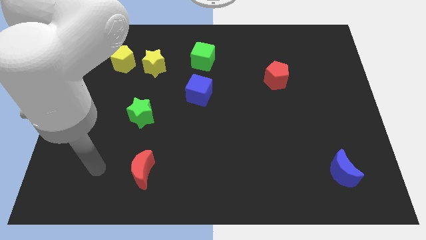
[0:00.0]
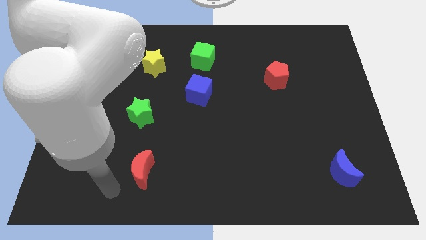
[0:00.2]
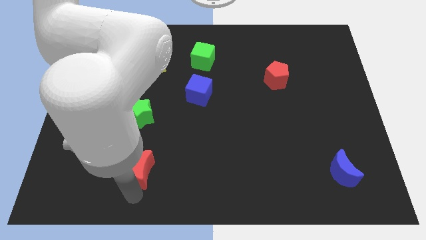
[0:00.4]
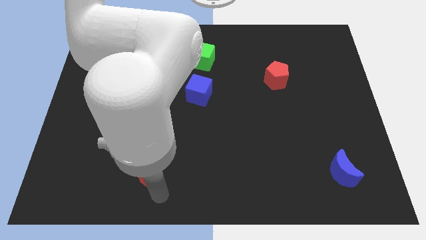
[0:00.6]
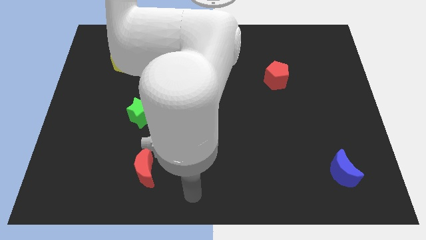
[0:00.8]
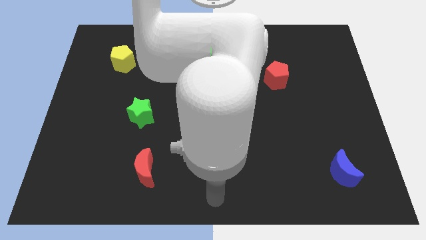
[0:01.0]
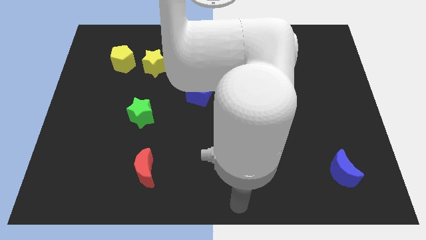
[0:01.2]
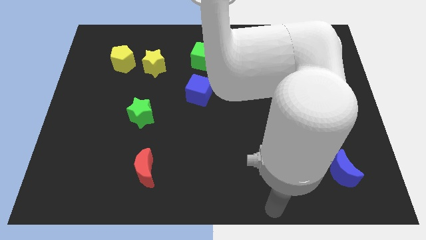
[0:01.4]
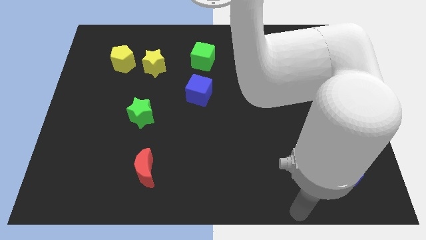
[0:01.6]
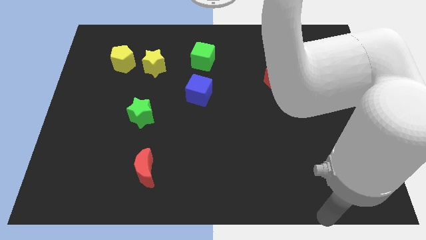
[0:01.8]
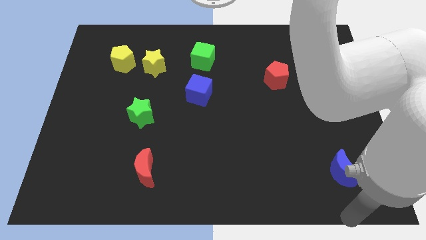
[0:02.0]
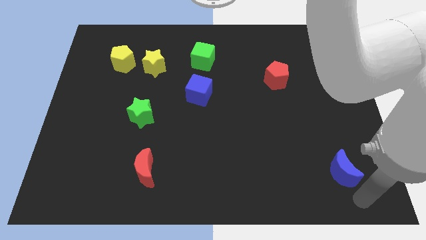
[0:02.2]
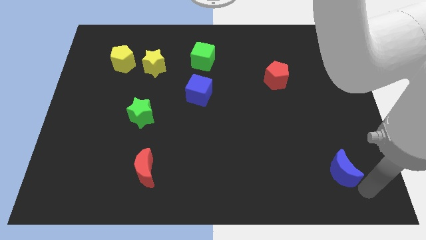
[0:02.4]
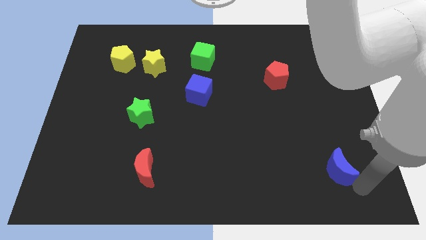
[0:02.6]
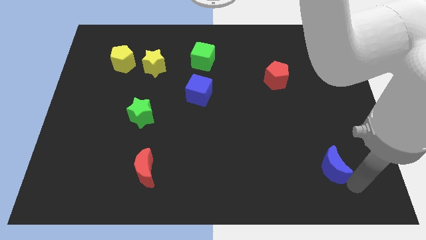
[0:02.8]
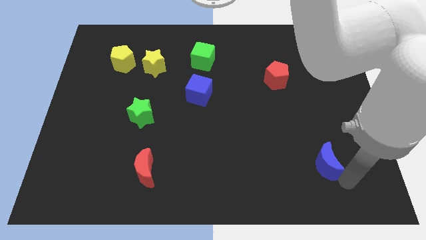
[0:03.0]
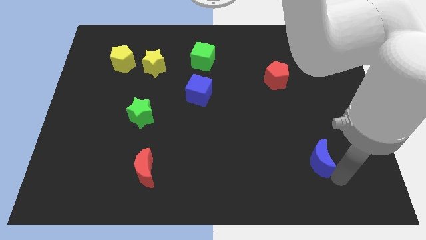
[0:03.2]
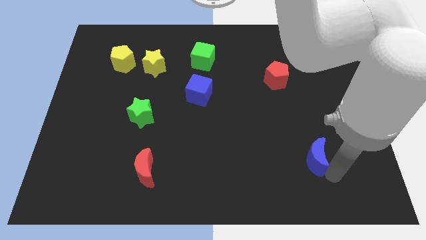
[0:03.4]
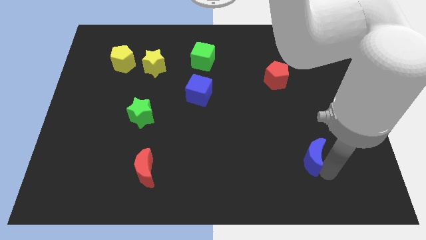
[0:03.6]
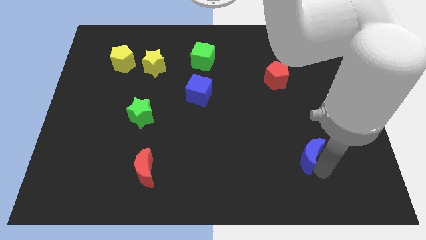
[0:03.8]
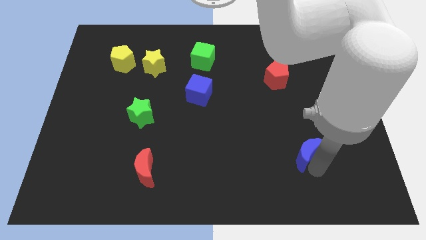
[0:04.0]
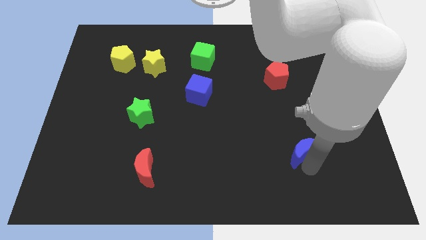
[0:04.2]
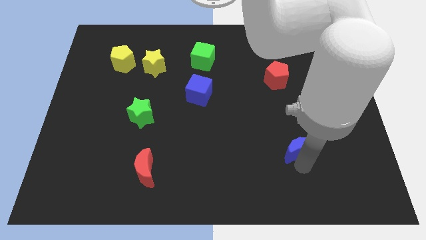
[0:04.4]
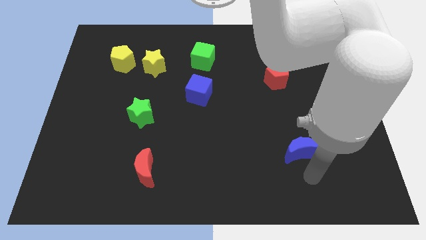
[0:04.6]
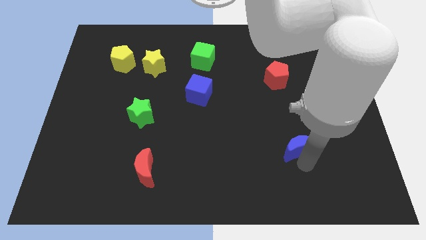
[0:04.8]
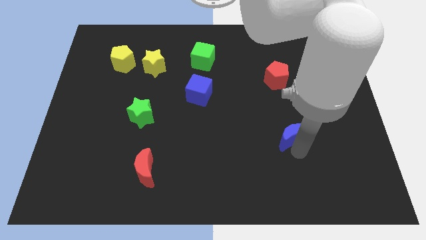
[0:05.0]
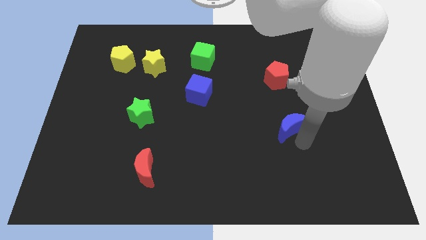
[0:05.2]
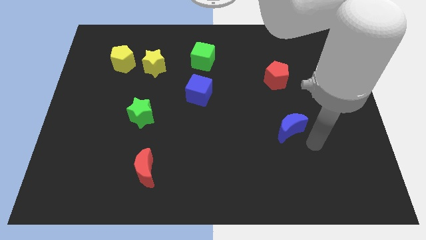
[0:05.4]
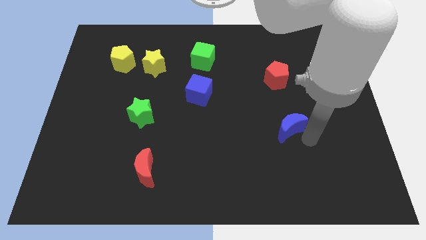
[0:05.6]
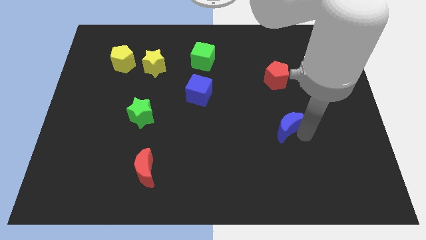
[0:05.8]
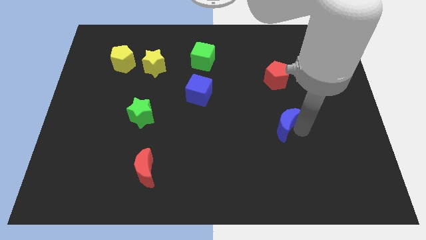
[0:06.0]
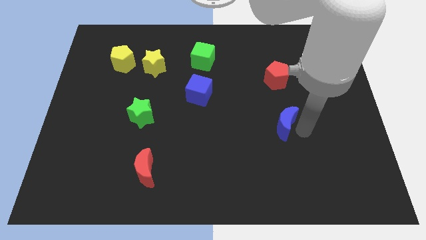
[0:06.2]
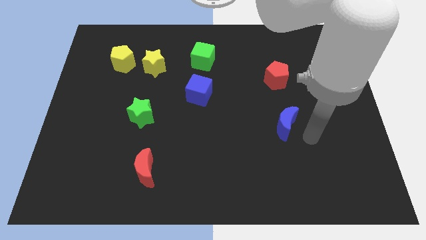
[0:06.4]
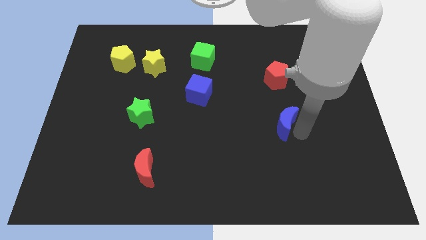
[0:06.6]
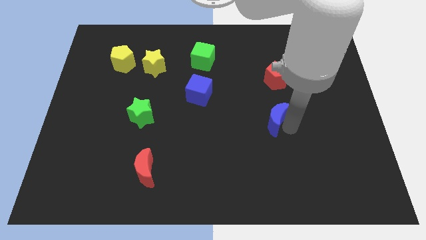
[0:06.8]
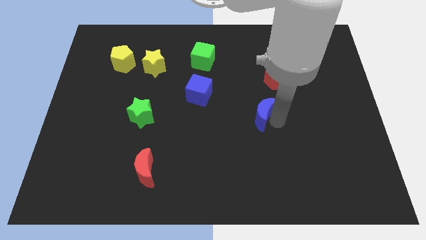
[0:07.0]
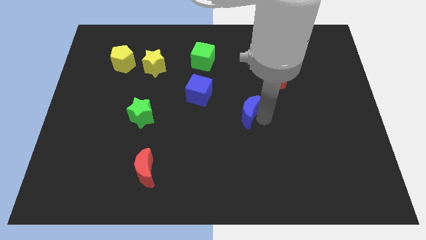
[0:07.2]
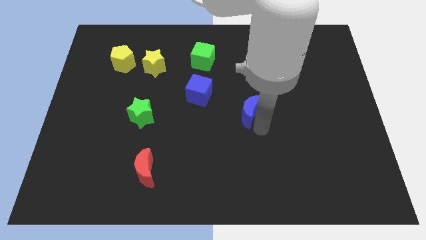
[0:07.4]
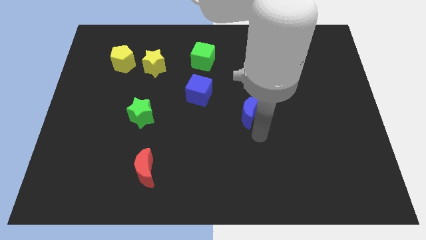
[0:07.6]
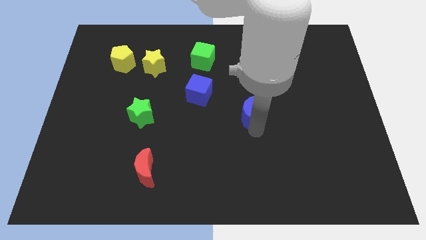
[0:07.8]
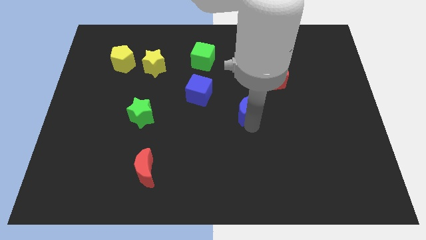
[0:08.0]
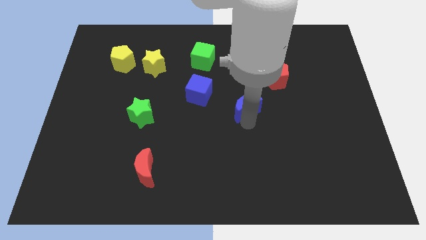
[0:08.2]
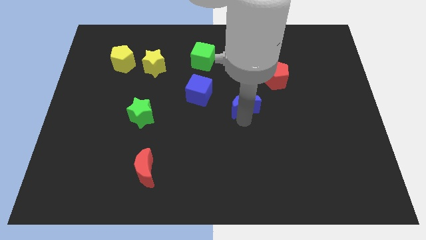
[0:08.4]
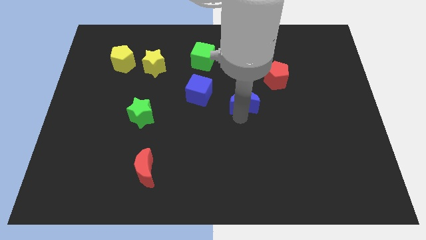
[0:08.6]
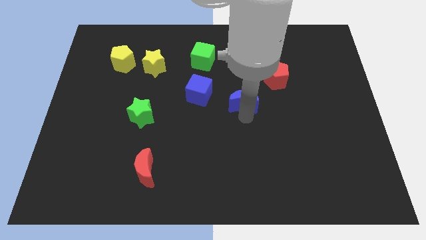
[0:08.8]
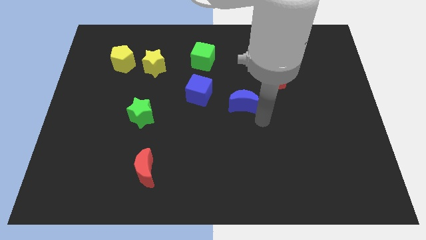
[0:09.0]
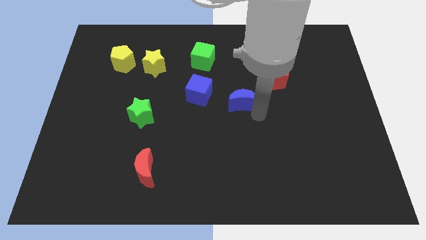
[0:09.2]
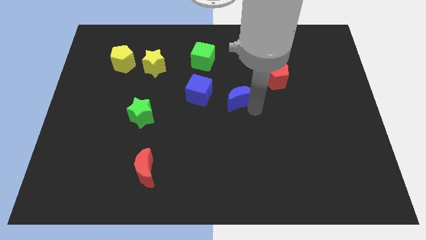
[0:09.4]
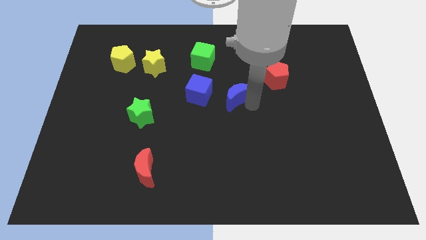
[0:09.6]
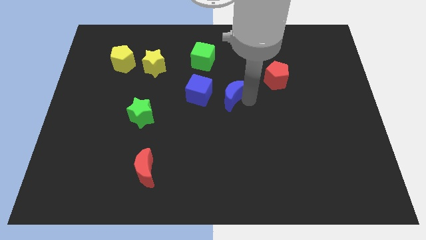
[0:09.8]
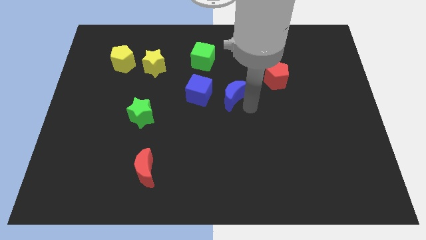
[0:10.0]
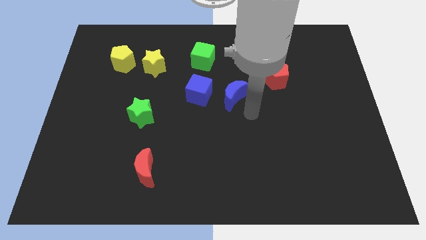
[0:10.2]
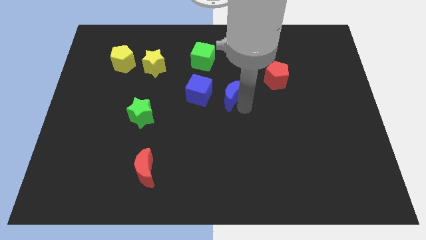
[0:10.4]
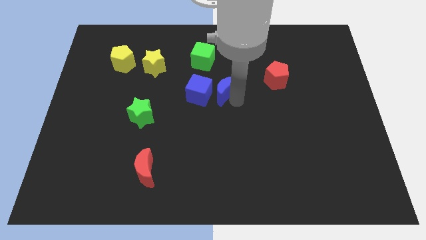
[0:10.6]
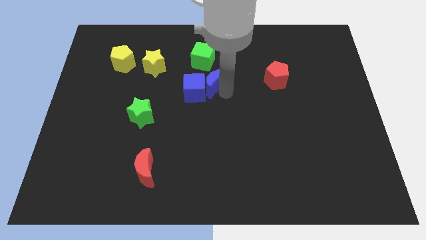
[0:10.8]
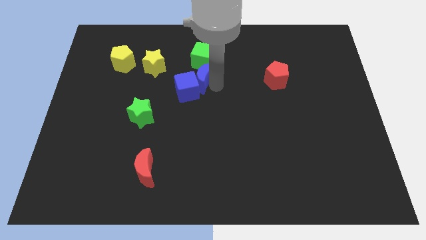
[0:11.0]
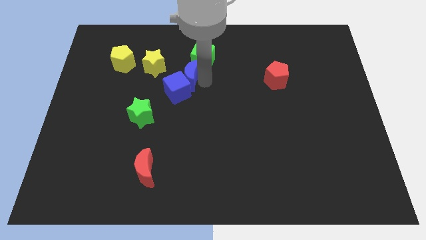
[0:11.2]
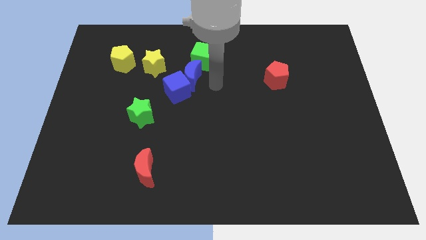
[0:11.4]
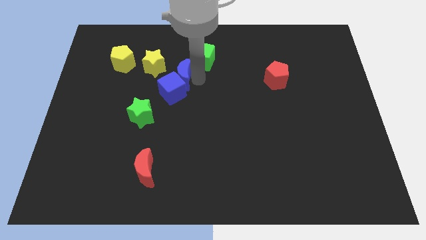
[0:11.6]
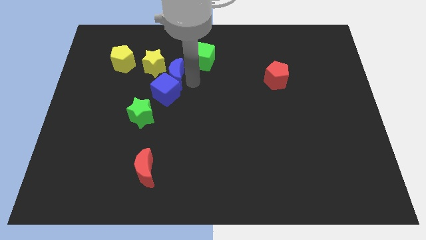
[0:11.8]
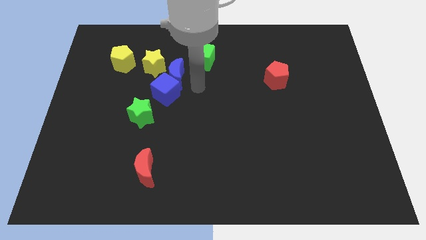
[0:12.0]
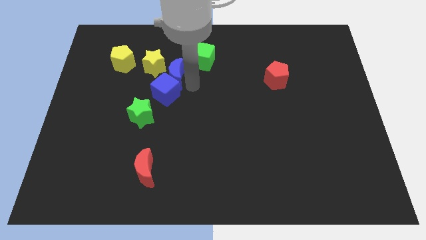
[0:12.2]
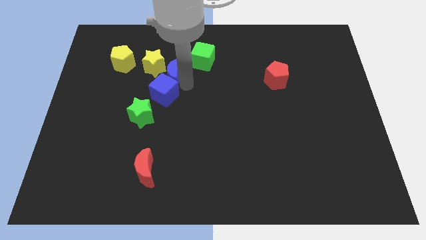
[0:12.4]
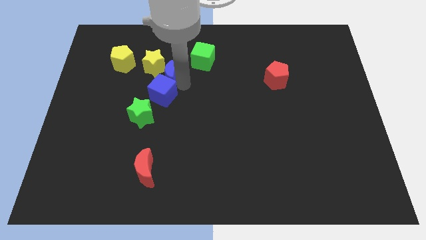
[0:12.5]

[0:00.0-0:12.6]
move the blue moon to the yellow star

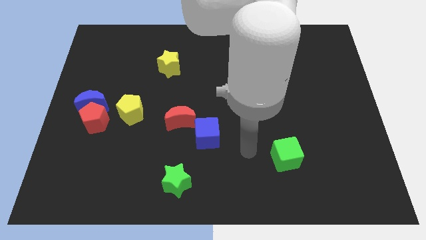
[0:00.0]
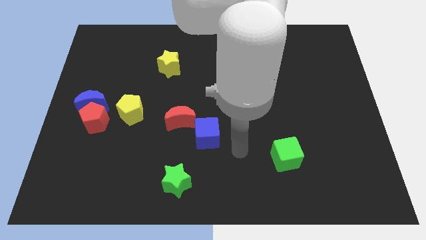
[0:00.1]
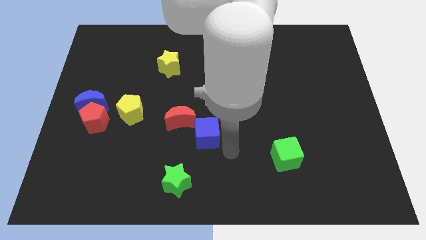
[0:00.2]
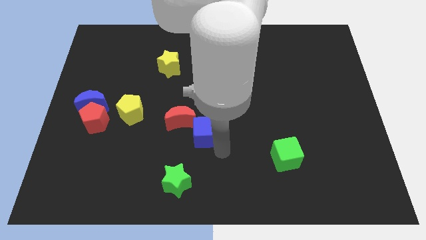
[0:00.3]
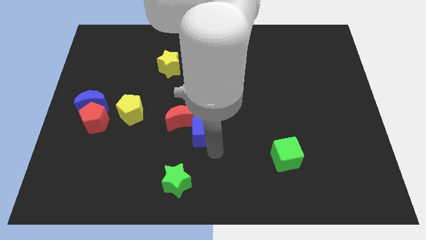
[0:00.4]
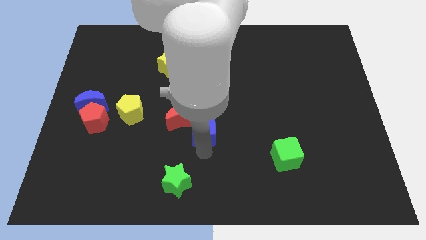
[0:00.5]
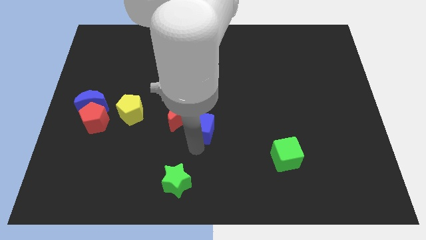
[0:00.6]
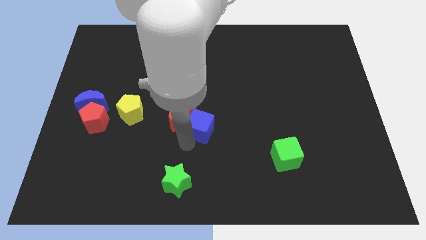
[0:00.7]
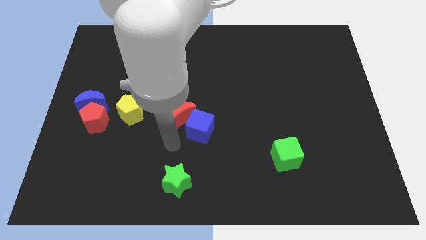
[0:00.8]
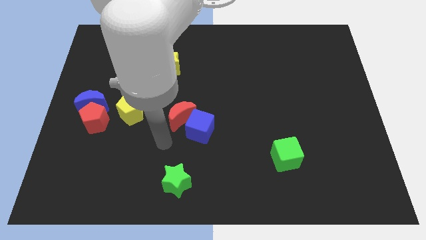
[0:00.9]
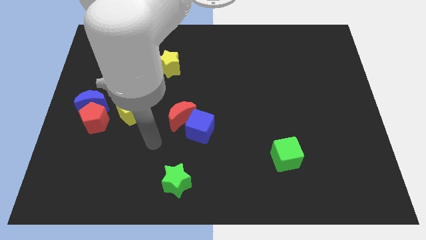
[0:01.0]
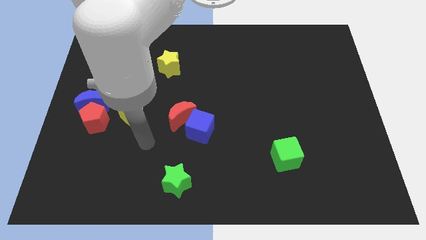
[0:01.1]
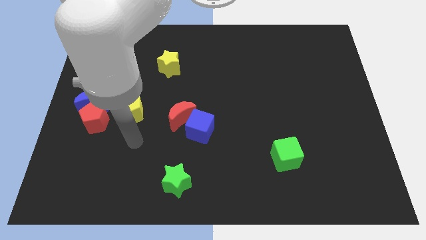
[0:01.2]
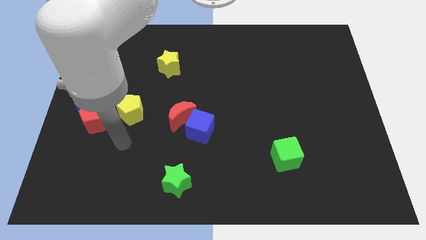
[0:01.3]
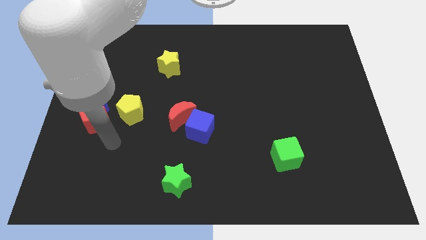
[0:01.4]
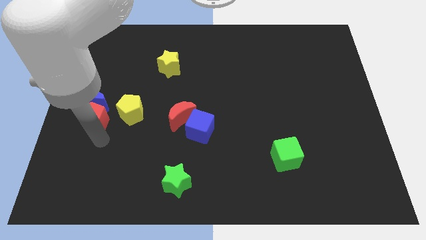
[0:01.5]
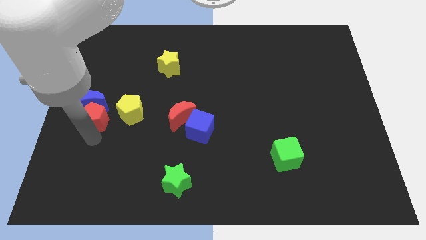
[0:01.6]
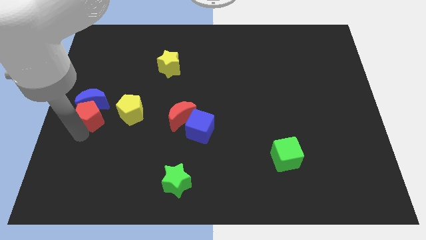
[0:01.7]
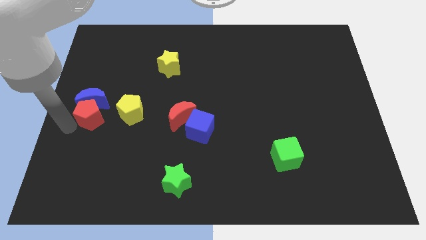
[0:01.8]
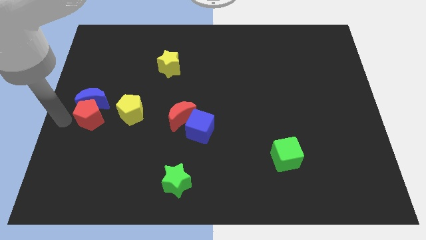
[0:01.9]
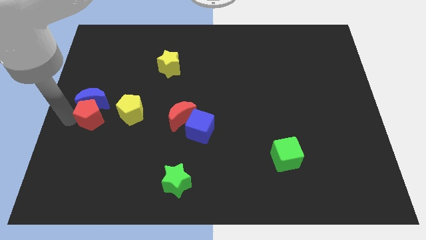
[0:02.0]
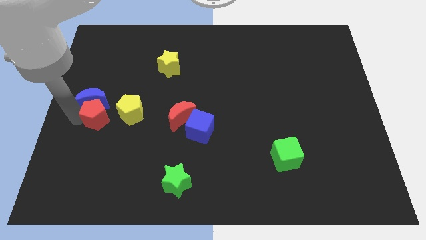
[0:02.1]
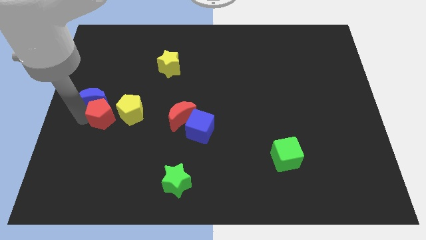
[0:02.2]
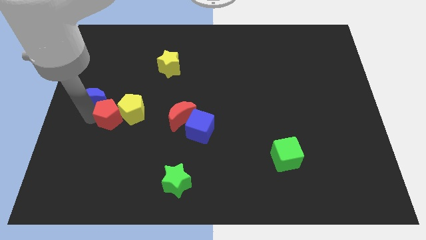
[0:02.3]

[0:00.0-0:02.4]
put the red pentagon next to the yellow pentagon
